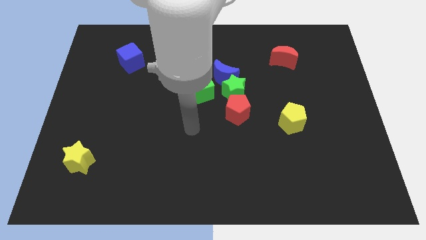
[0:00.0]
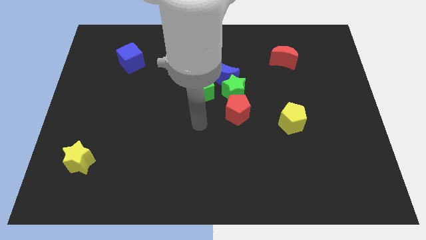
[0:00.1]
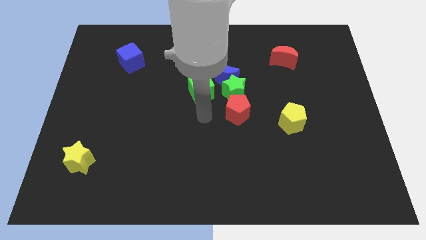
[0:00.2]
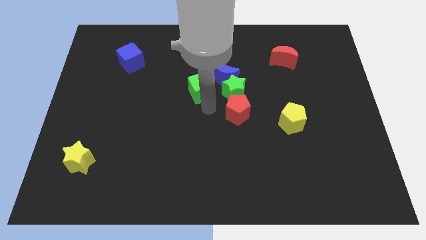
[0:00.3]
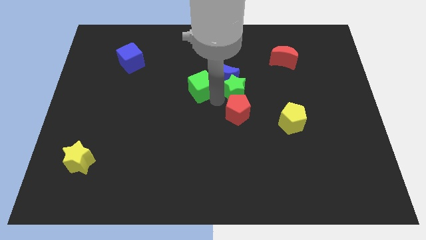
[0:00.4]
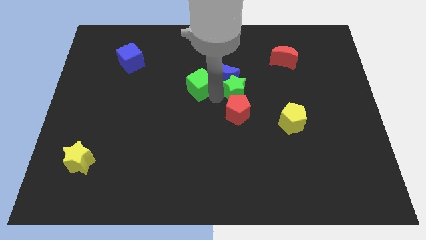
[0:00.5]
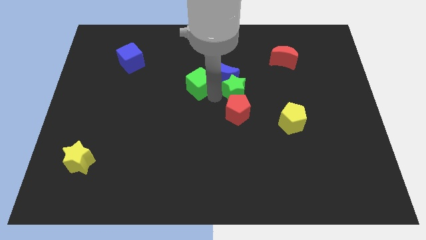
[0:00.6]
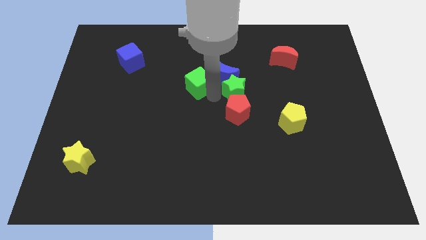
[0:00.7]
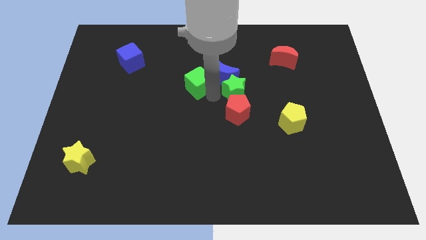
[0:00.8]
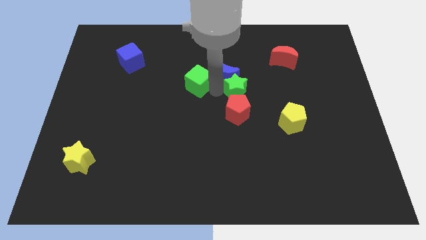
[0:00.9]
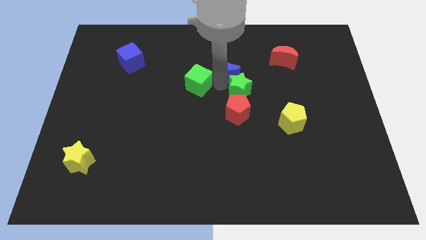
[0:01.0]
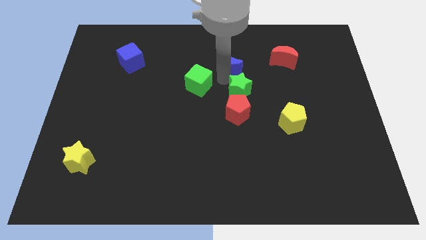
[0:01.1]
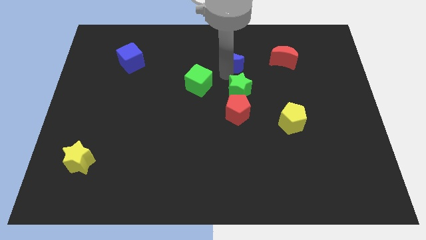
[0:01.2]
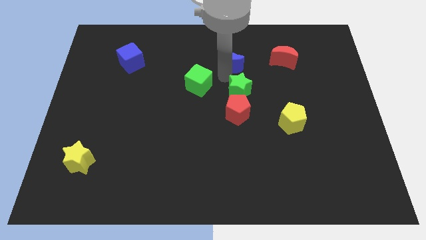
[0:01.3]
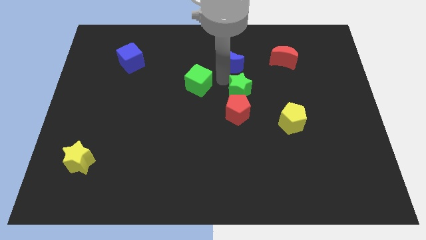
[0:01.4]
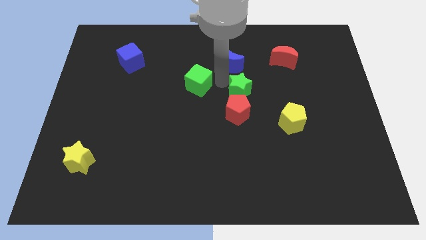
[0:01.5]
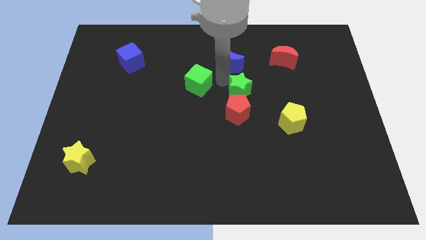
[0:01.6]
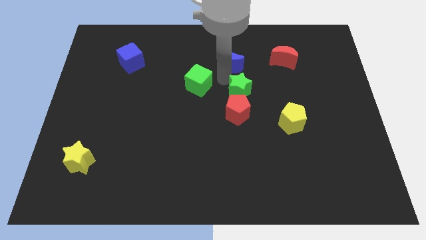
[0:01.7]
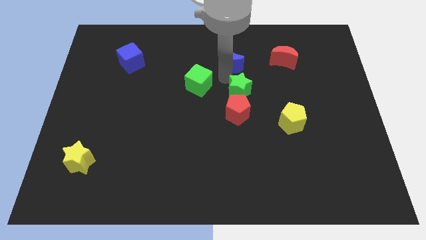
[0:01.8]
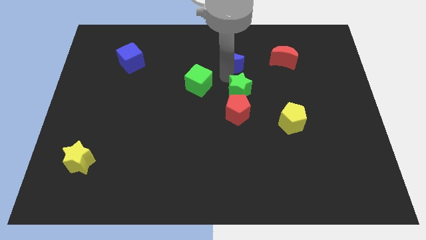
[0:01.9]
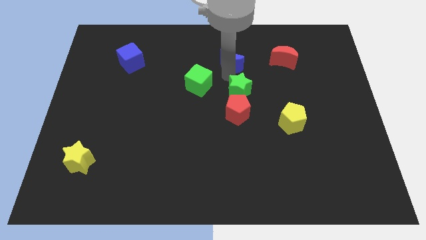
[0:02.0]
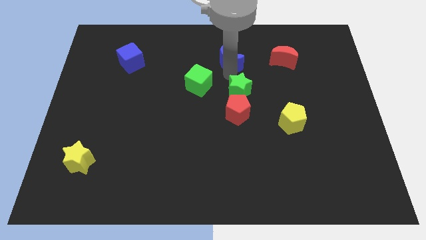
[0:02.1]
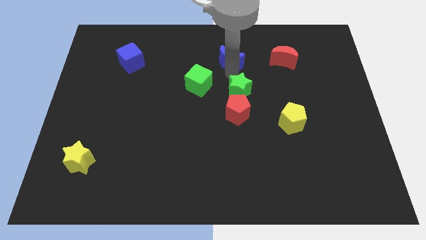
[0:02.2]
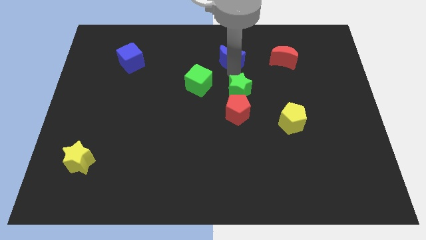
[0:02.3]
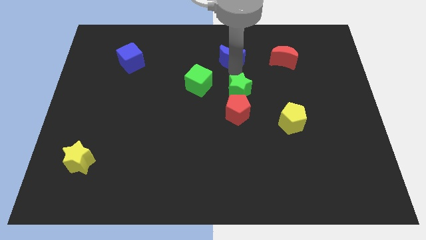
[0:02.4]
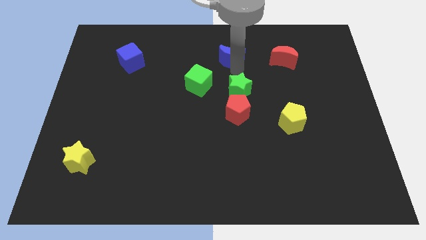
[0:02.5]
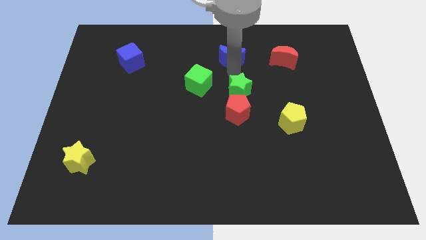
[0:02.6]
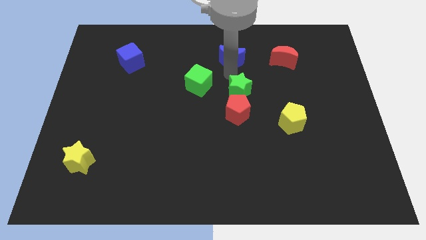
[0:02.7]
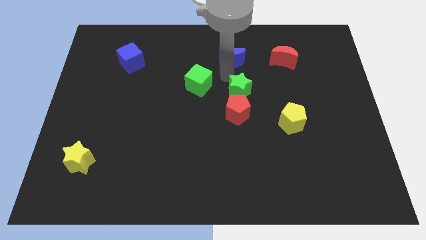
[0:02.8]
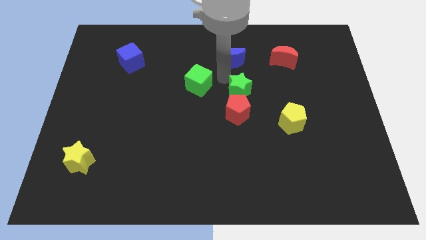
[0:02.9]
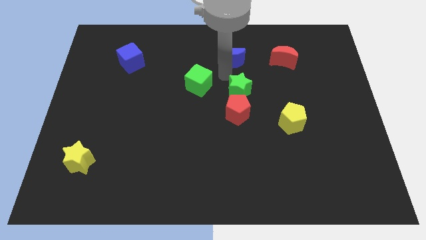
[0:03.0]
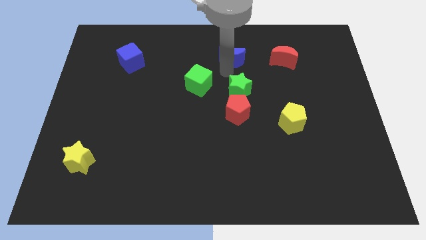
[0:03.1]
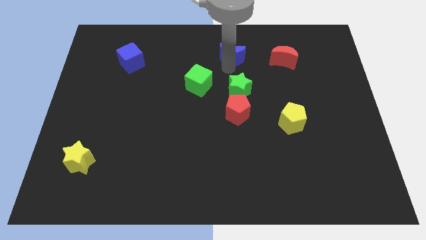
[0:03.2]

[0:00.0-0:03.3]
pull the blue moon apart from the green star and green cube

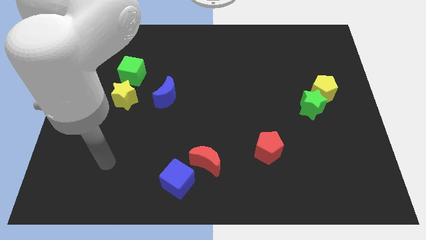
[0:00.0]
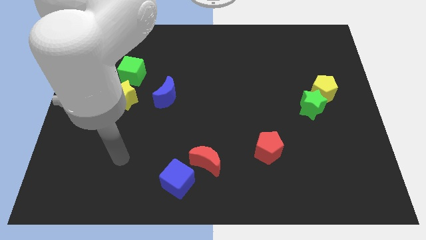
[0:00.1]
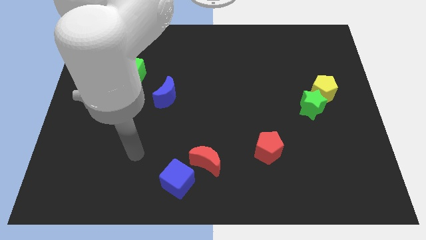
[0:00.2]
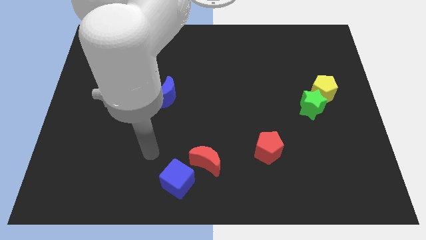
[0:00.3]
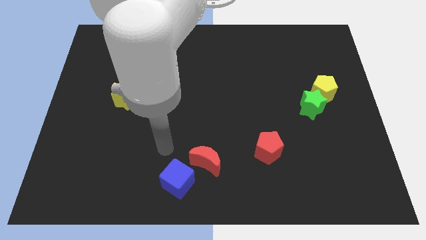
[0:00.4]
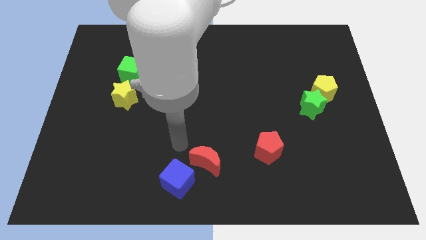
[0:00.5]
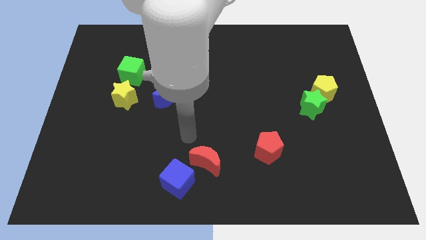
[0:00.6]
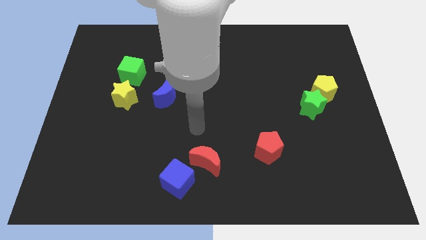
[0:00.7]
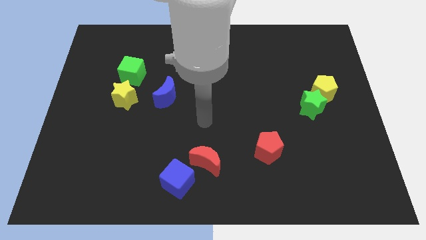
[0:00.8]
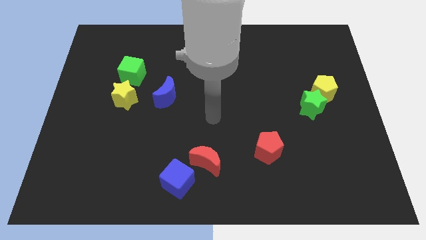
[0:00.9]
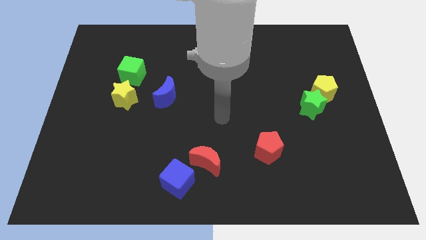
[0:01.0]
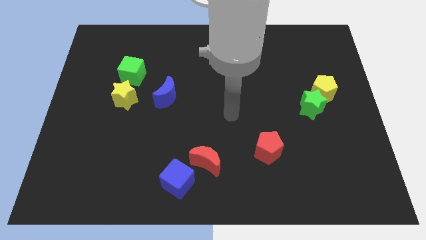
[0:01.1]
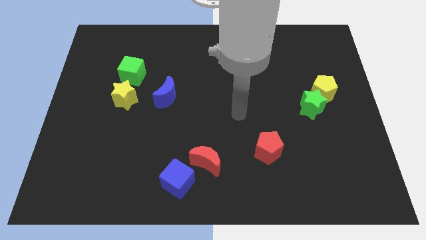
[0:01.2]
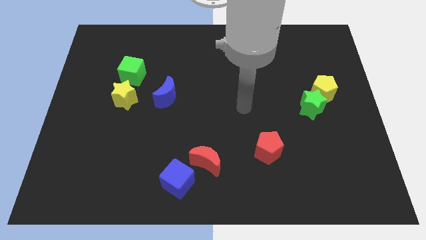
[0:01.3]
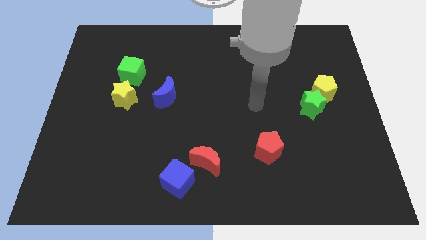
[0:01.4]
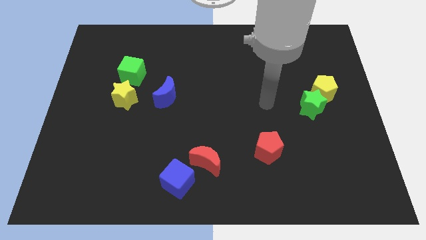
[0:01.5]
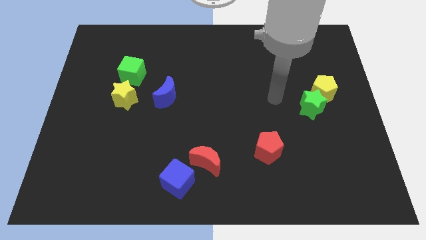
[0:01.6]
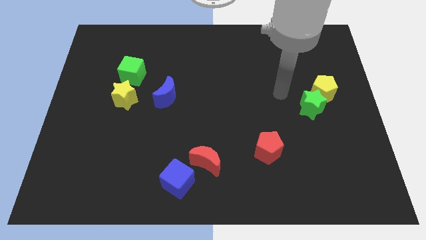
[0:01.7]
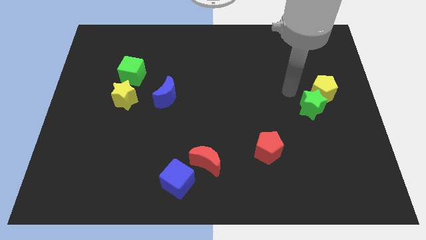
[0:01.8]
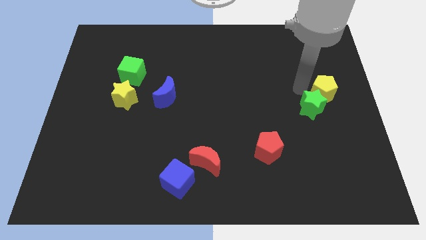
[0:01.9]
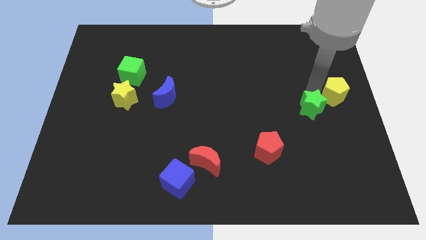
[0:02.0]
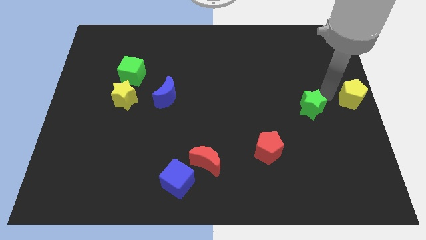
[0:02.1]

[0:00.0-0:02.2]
pull the green star apart from the yellow pentagon

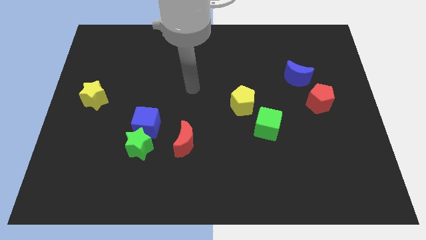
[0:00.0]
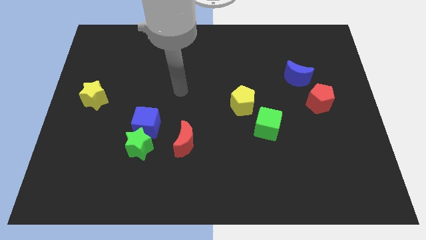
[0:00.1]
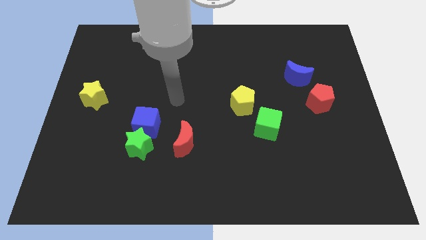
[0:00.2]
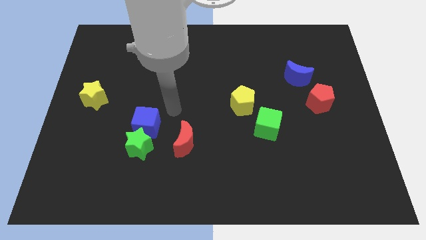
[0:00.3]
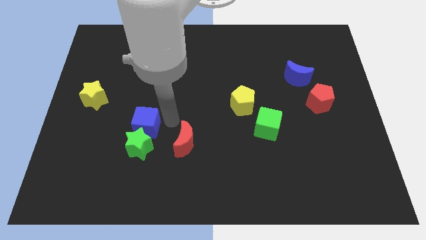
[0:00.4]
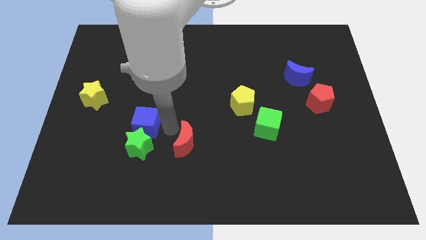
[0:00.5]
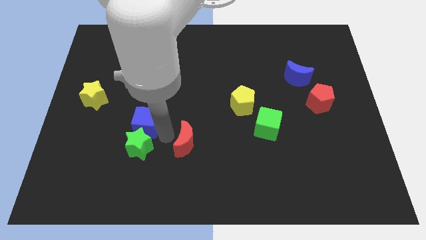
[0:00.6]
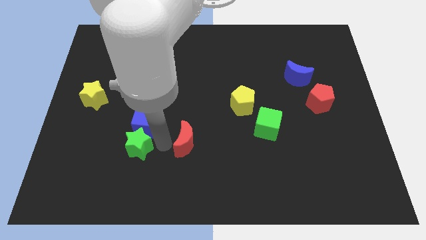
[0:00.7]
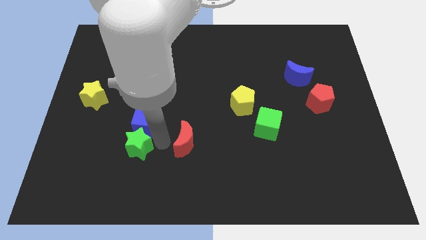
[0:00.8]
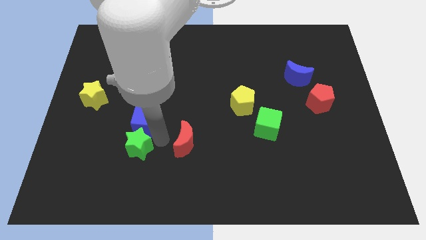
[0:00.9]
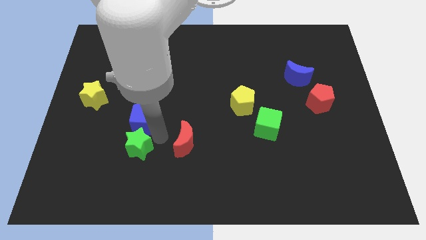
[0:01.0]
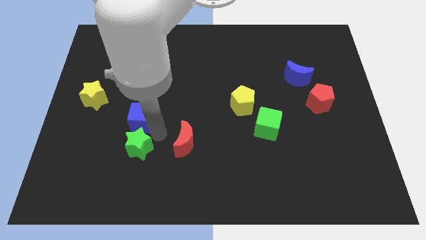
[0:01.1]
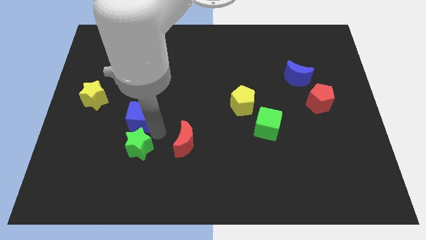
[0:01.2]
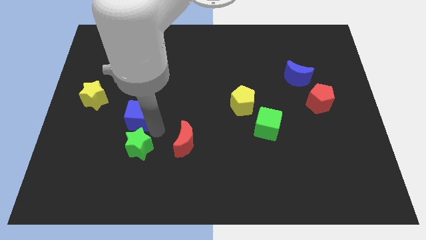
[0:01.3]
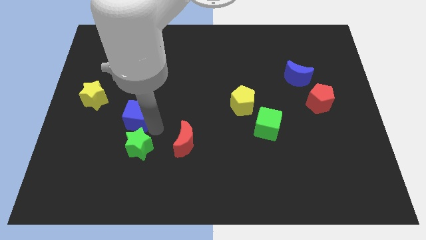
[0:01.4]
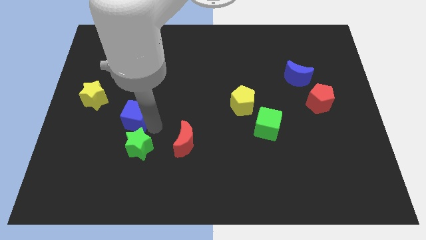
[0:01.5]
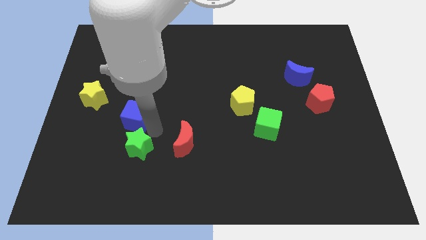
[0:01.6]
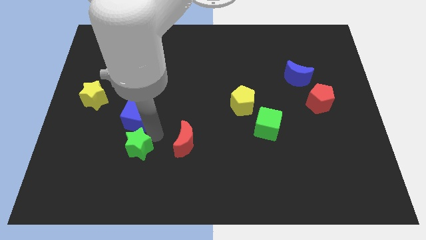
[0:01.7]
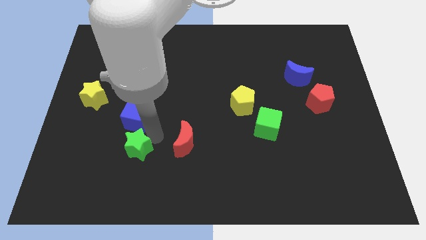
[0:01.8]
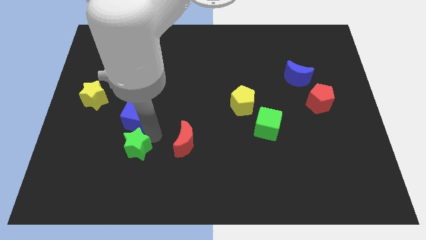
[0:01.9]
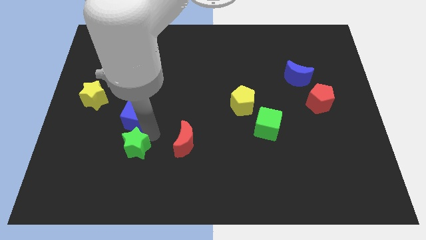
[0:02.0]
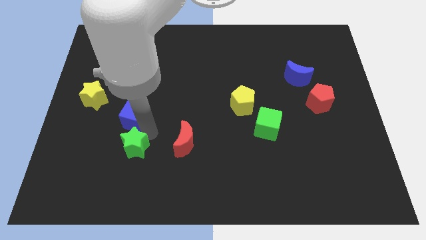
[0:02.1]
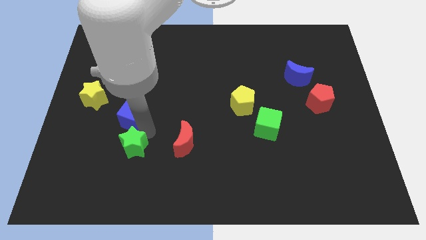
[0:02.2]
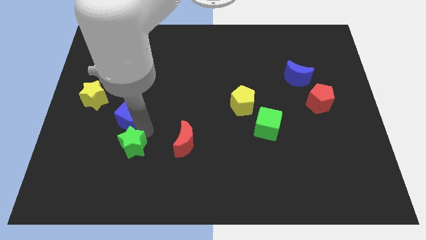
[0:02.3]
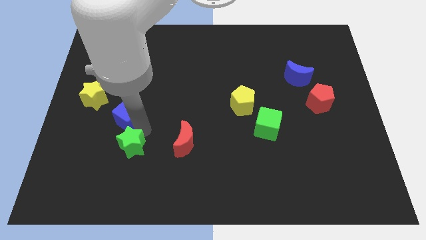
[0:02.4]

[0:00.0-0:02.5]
separate the blue cube from the green star and red moon

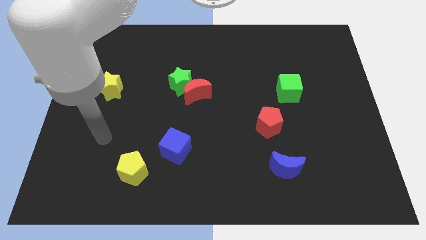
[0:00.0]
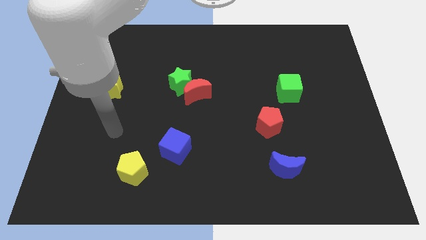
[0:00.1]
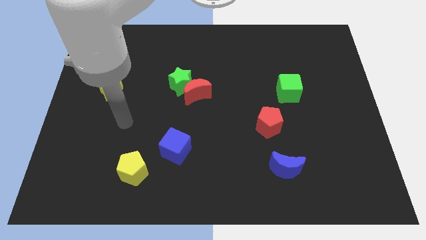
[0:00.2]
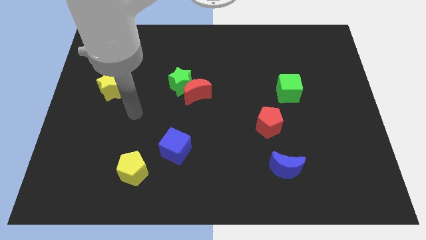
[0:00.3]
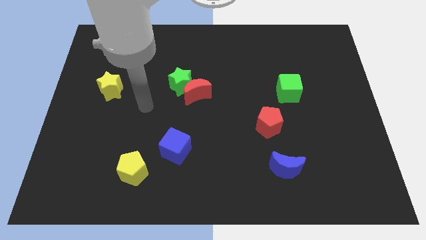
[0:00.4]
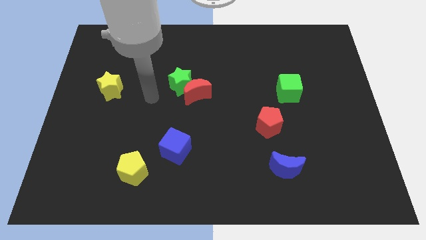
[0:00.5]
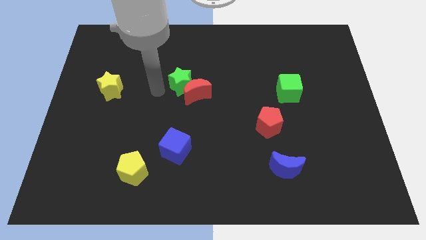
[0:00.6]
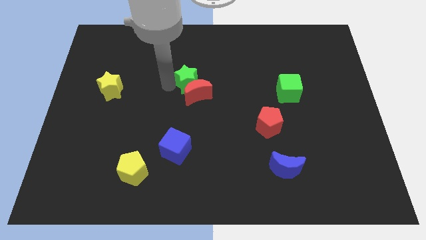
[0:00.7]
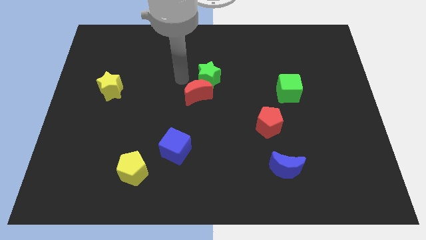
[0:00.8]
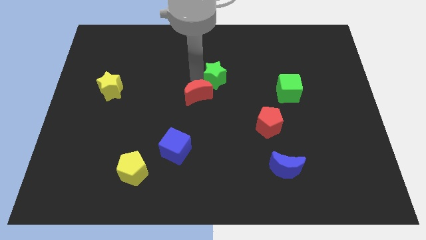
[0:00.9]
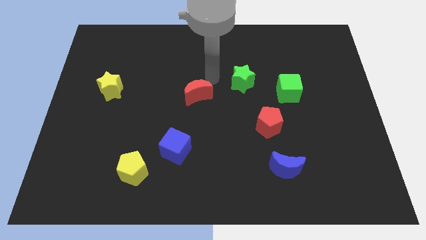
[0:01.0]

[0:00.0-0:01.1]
move the red moon away from the green star

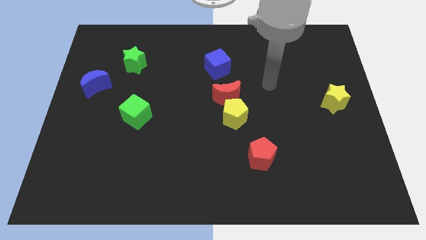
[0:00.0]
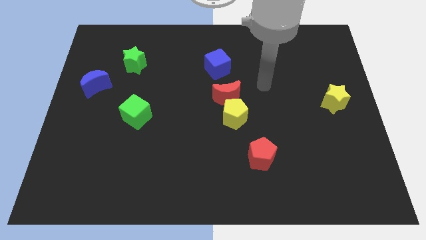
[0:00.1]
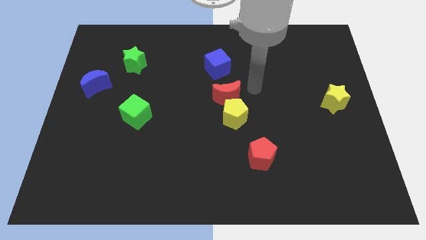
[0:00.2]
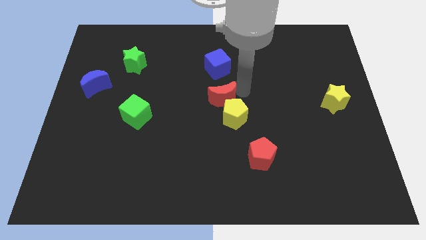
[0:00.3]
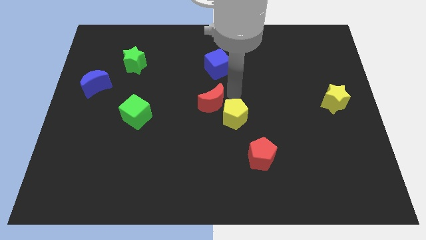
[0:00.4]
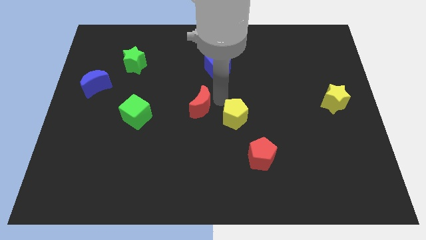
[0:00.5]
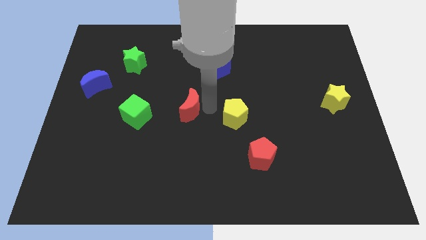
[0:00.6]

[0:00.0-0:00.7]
separate the yellow pentagon from the red moon
